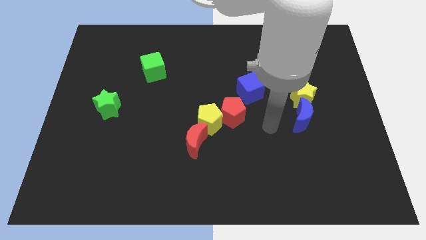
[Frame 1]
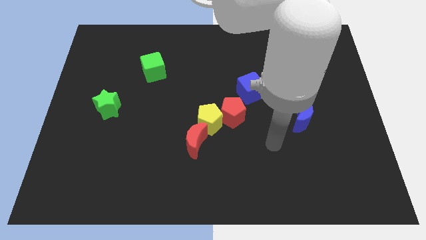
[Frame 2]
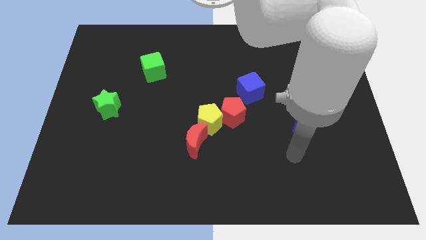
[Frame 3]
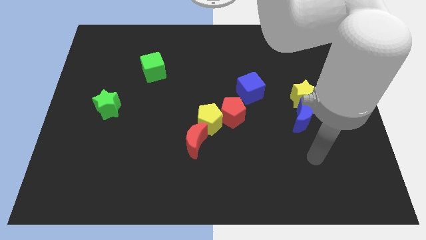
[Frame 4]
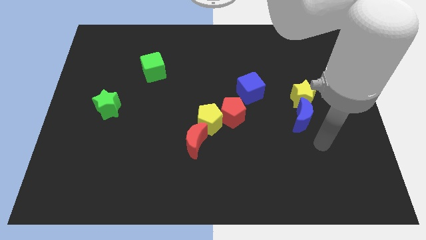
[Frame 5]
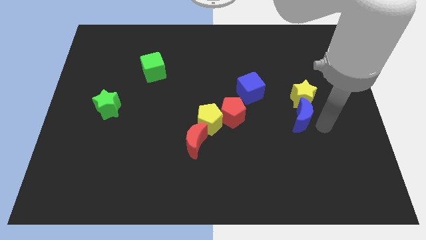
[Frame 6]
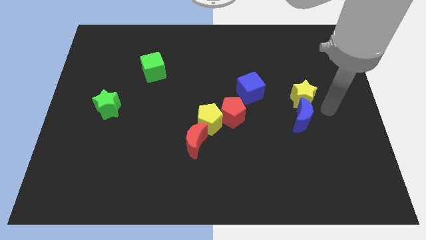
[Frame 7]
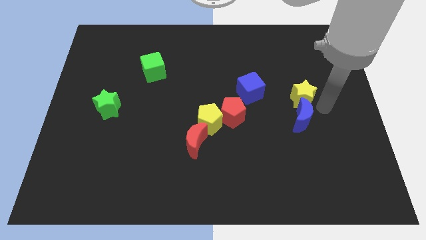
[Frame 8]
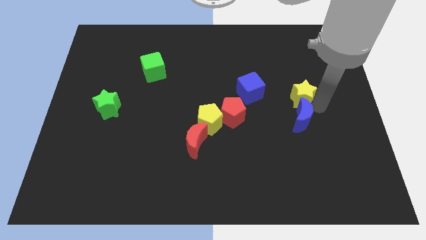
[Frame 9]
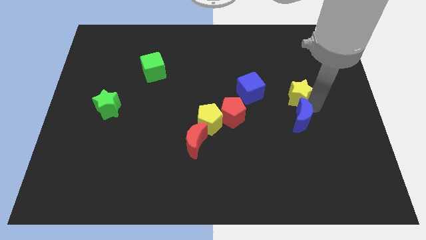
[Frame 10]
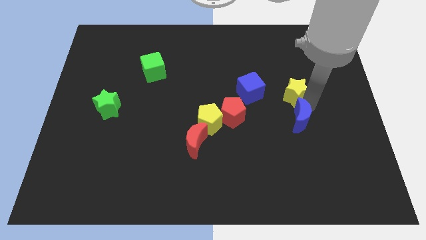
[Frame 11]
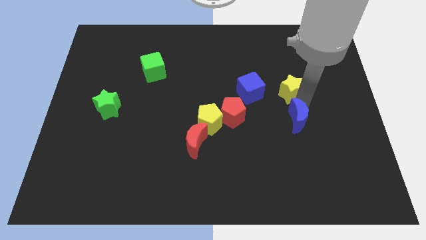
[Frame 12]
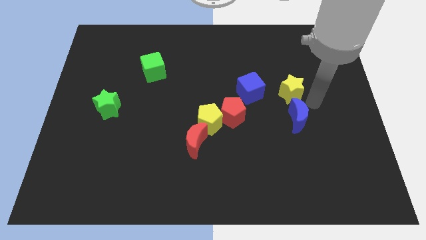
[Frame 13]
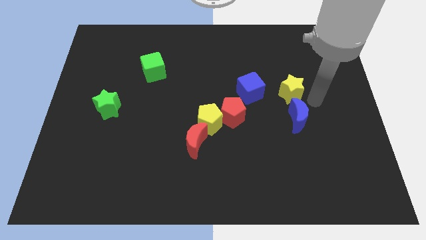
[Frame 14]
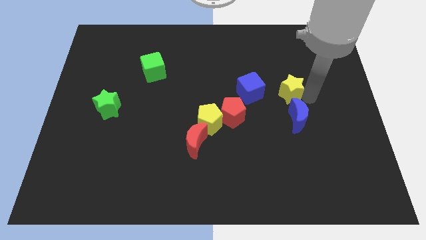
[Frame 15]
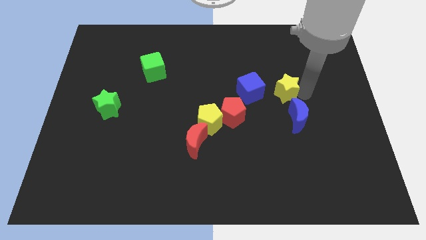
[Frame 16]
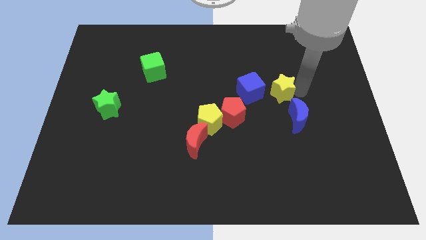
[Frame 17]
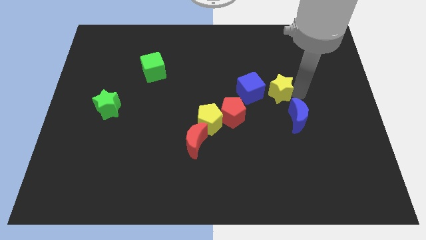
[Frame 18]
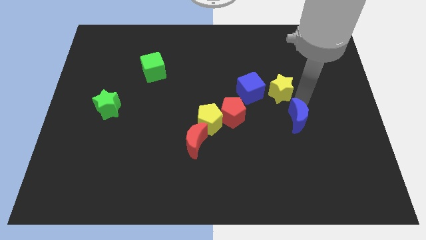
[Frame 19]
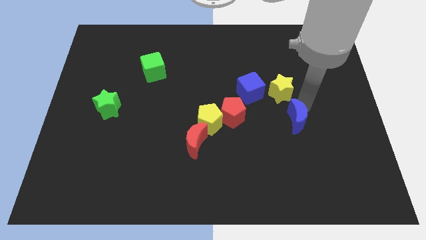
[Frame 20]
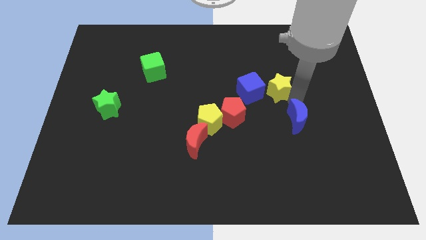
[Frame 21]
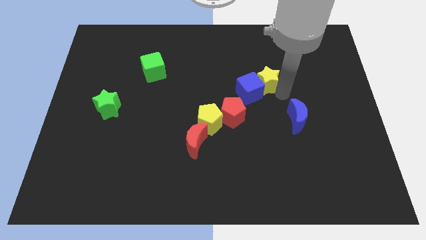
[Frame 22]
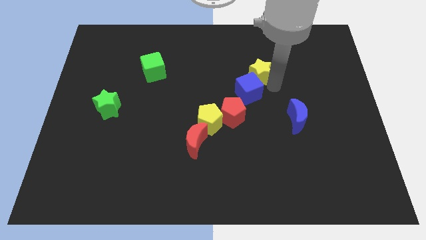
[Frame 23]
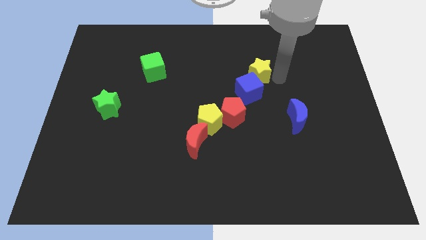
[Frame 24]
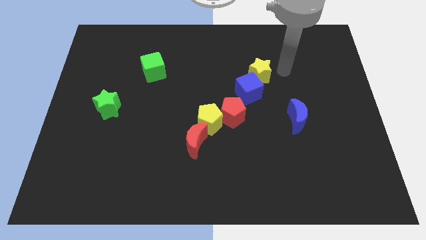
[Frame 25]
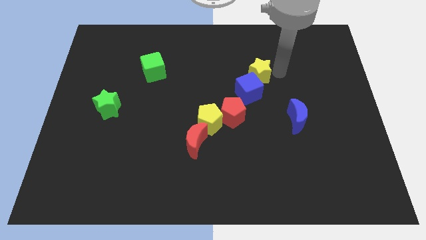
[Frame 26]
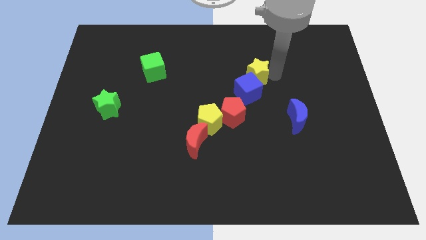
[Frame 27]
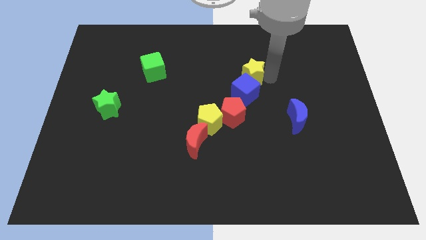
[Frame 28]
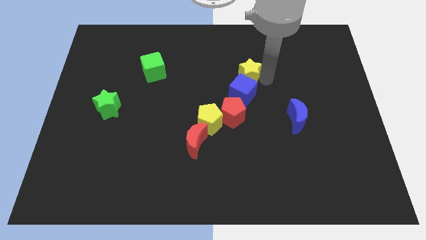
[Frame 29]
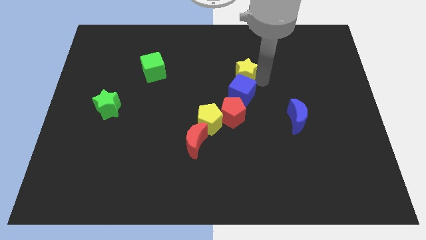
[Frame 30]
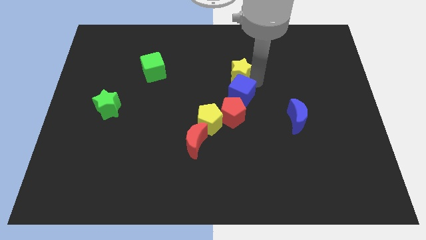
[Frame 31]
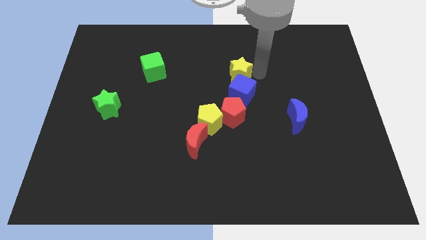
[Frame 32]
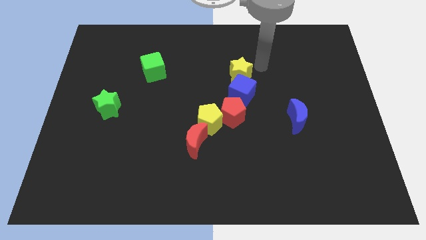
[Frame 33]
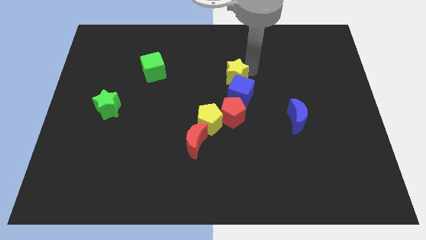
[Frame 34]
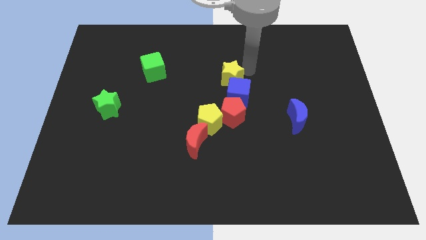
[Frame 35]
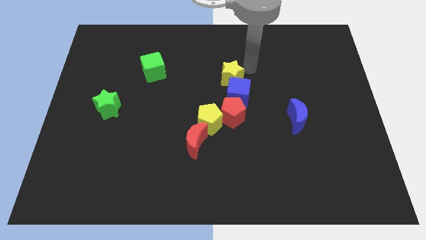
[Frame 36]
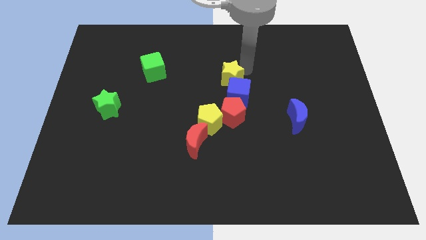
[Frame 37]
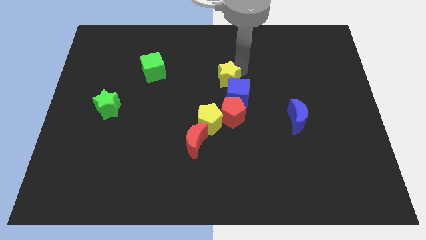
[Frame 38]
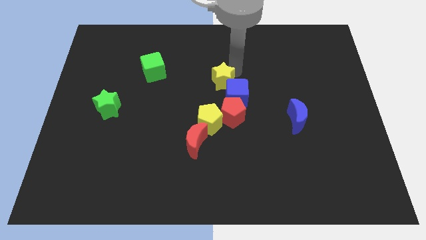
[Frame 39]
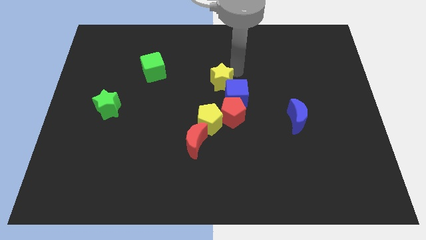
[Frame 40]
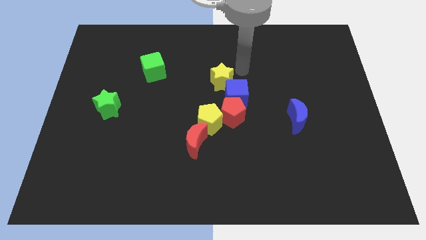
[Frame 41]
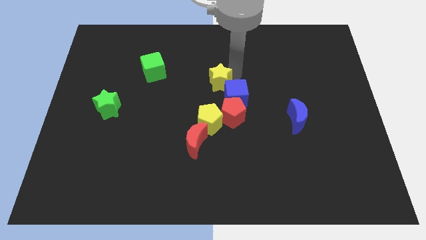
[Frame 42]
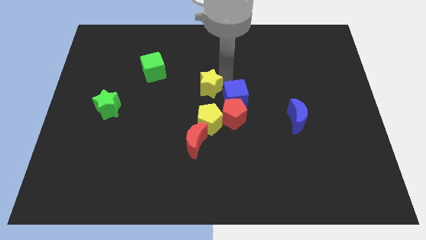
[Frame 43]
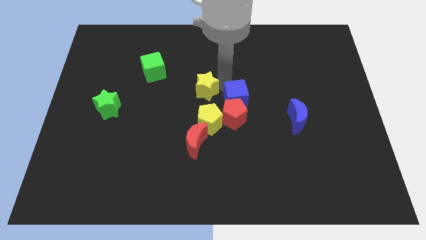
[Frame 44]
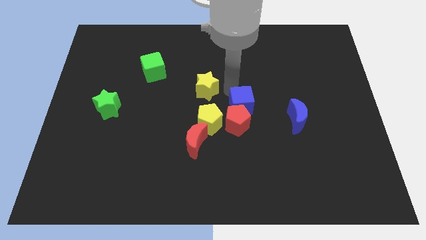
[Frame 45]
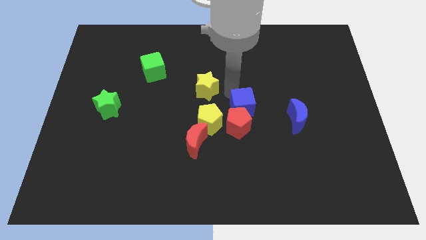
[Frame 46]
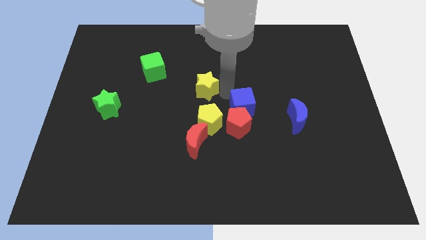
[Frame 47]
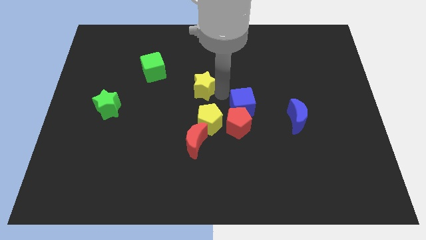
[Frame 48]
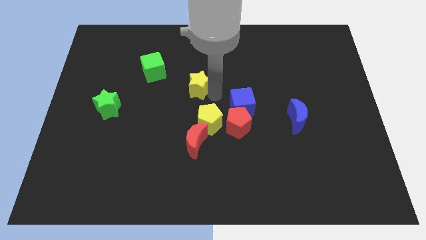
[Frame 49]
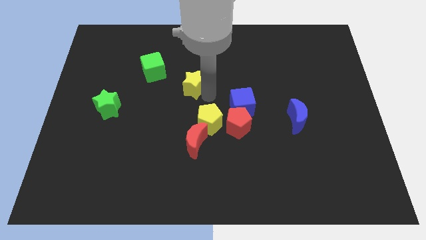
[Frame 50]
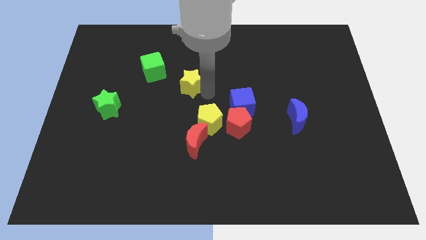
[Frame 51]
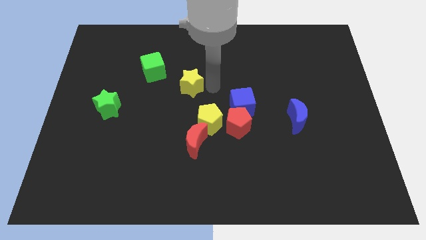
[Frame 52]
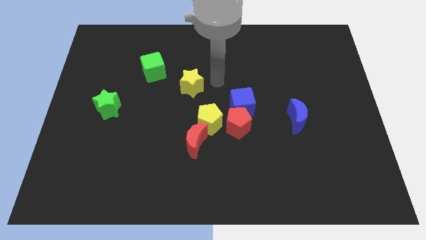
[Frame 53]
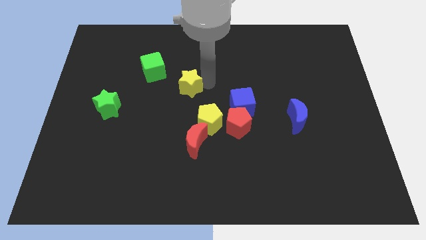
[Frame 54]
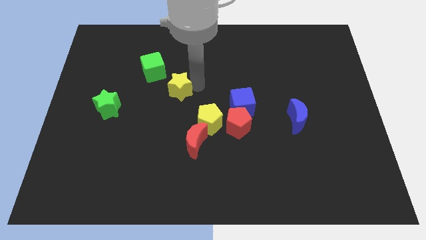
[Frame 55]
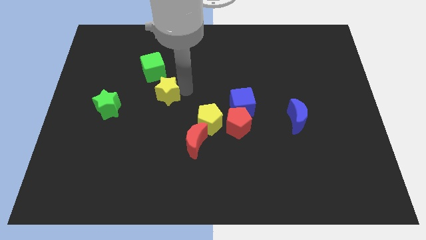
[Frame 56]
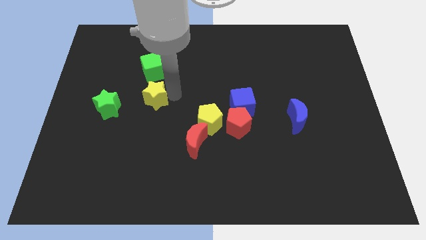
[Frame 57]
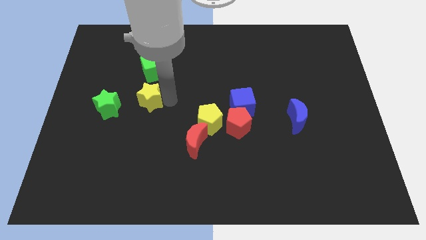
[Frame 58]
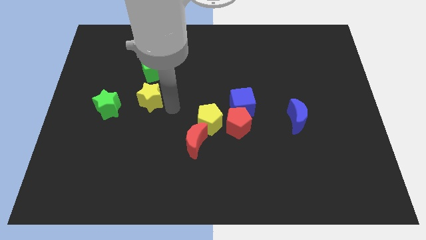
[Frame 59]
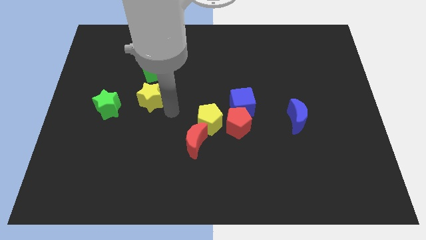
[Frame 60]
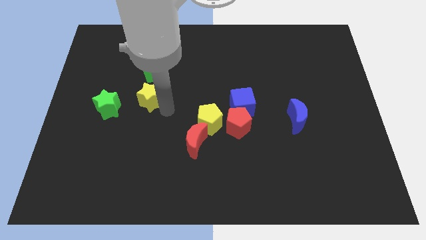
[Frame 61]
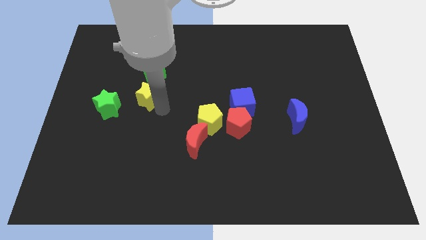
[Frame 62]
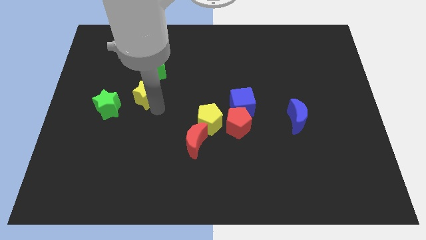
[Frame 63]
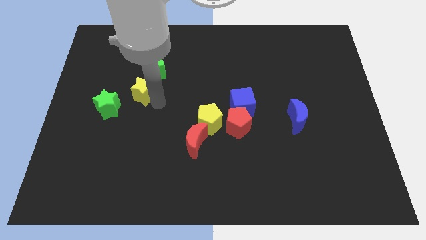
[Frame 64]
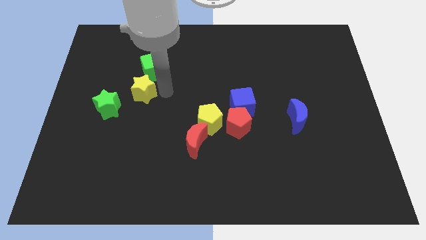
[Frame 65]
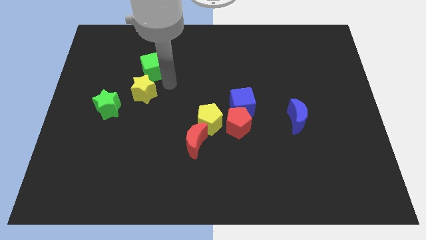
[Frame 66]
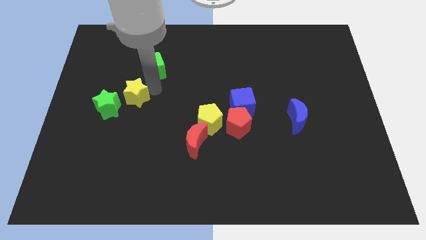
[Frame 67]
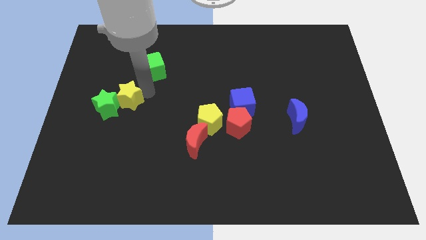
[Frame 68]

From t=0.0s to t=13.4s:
slide the yellow star close to the green star

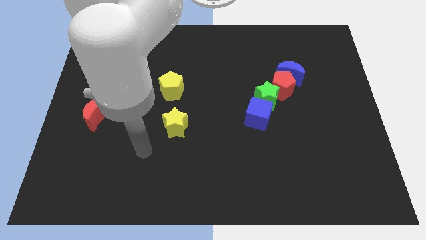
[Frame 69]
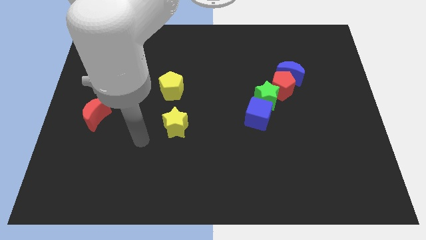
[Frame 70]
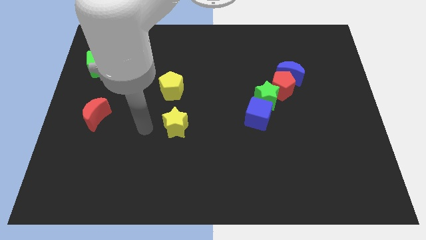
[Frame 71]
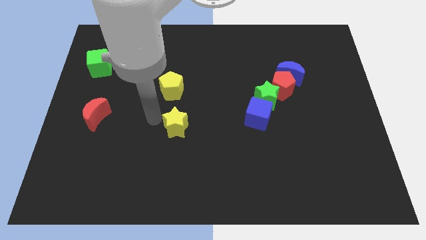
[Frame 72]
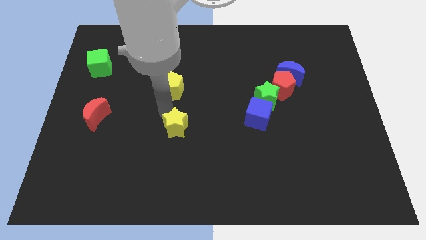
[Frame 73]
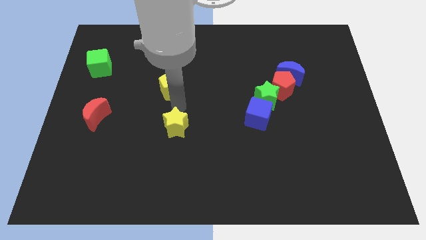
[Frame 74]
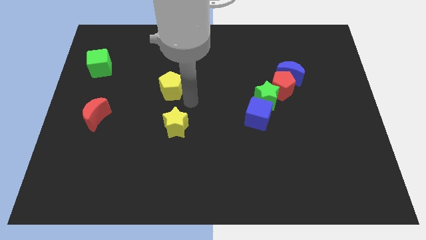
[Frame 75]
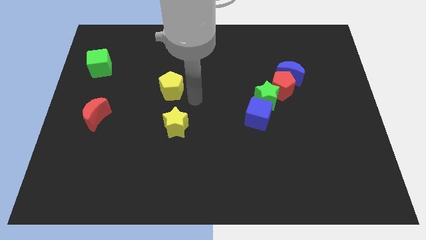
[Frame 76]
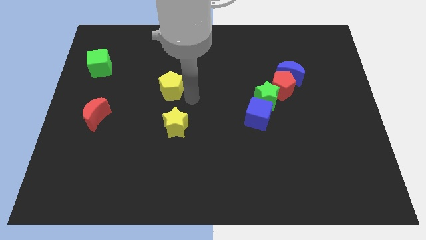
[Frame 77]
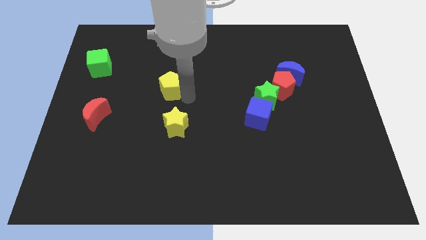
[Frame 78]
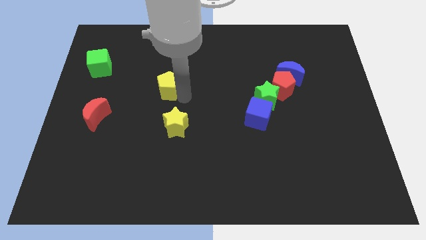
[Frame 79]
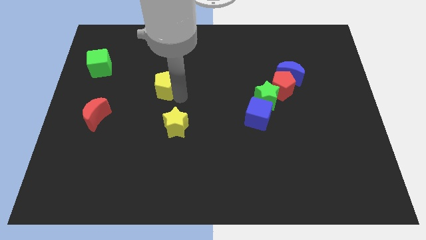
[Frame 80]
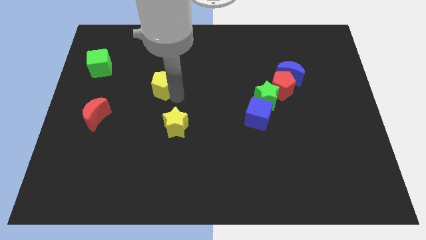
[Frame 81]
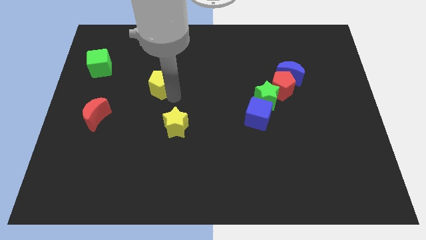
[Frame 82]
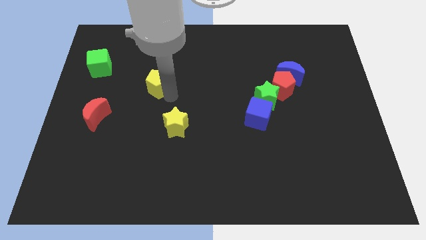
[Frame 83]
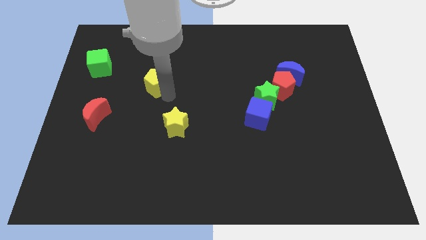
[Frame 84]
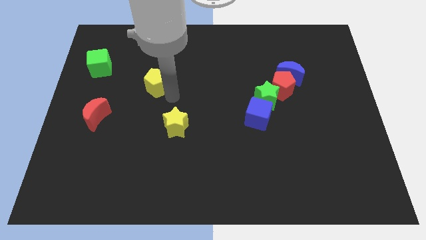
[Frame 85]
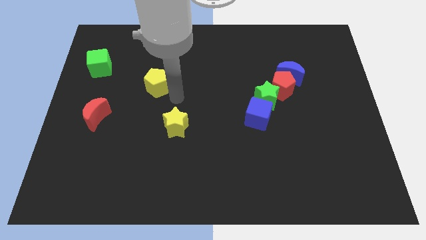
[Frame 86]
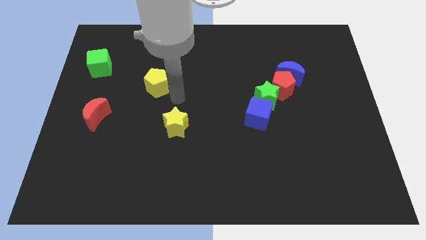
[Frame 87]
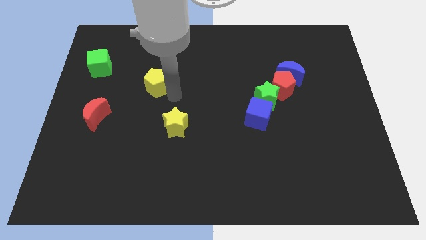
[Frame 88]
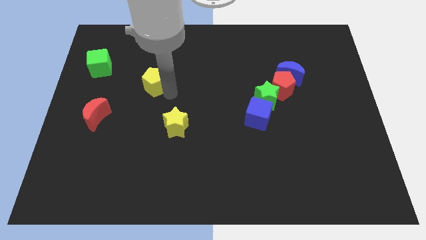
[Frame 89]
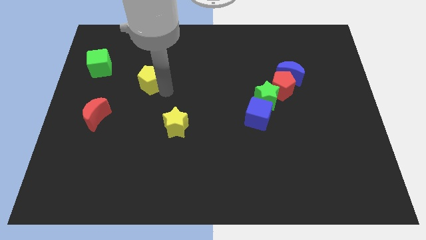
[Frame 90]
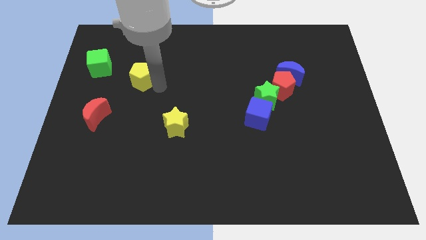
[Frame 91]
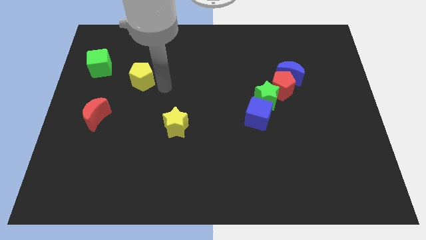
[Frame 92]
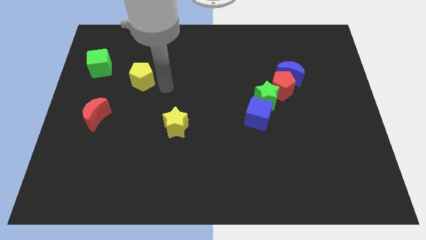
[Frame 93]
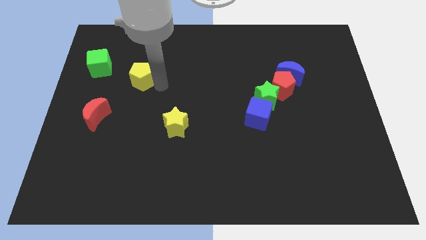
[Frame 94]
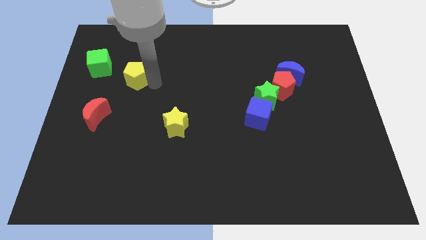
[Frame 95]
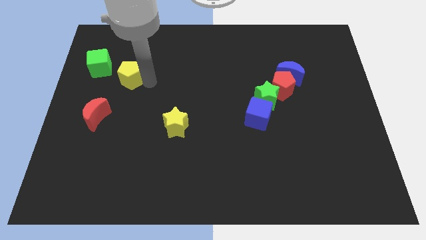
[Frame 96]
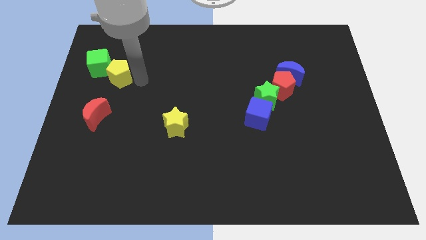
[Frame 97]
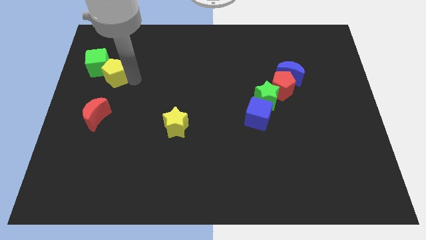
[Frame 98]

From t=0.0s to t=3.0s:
slide the yellow pentagon close to the green cube
